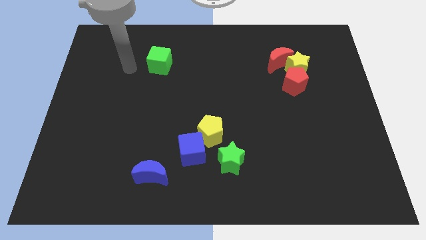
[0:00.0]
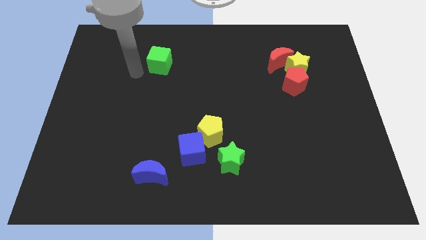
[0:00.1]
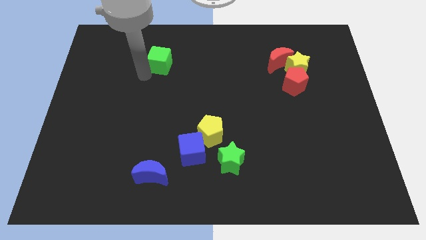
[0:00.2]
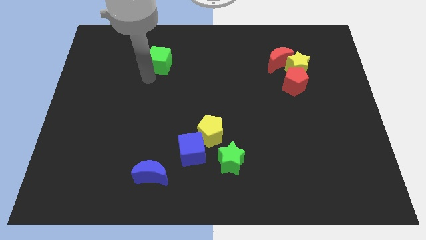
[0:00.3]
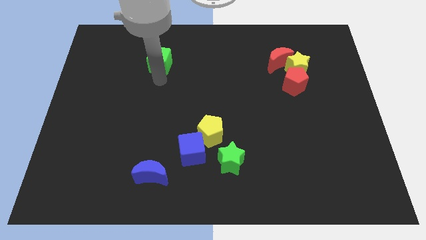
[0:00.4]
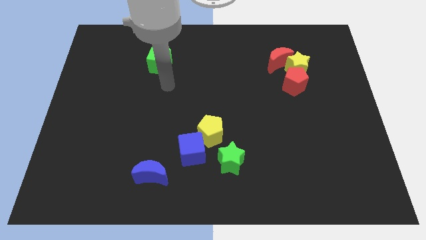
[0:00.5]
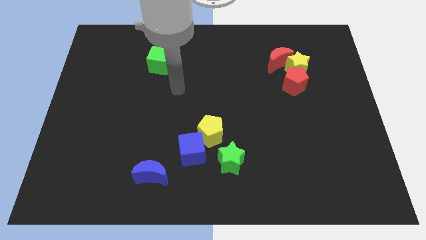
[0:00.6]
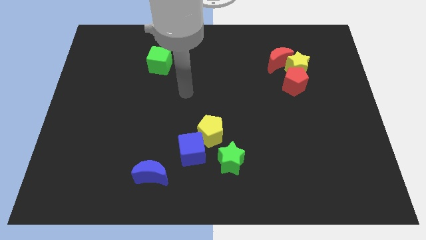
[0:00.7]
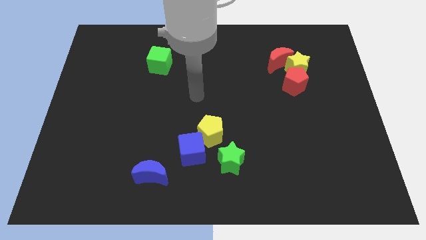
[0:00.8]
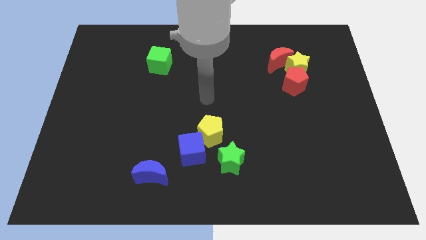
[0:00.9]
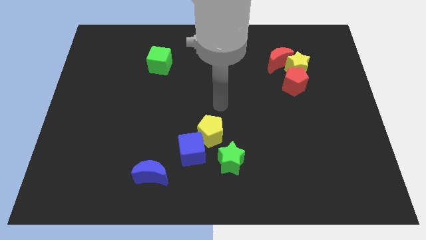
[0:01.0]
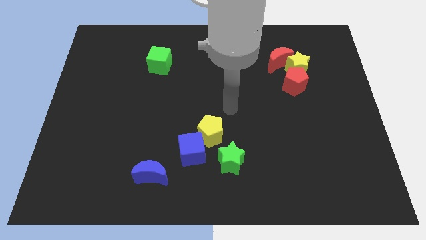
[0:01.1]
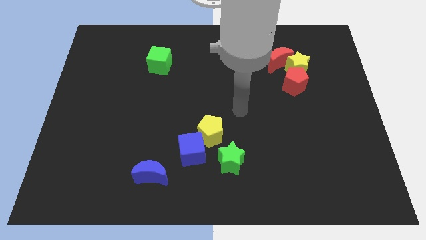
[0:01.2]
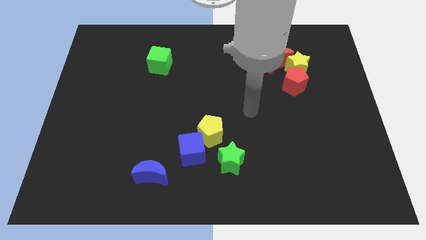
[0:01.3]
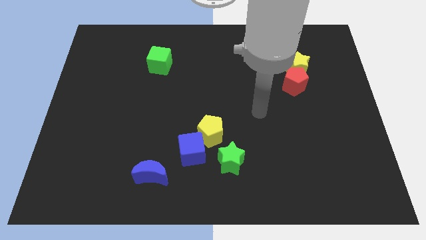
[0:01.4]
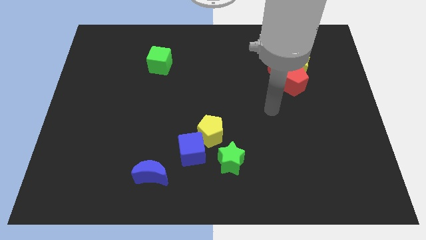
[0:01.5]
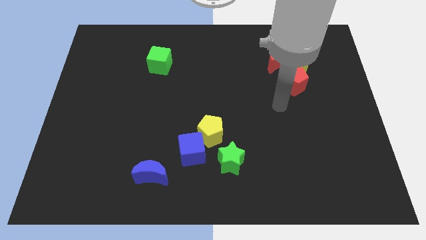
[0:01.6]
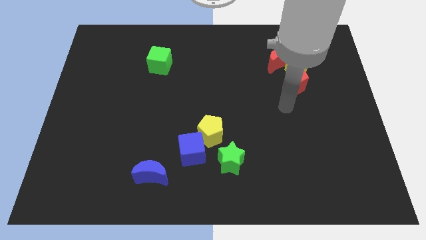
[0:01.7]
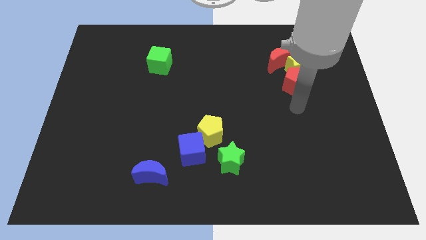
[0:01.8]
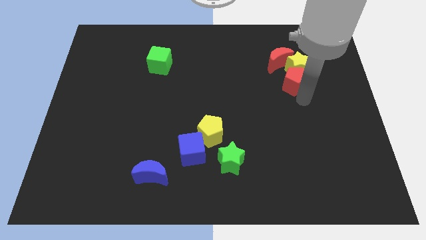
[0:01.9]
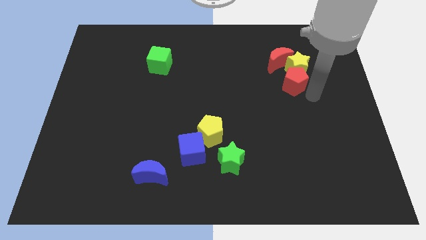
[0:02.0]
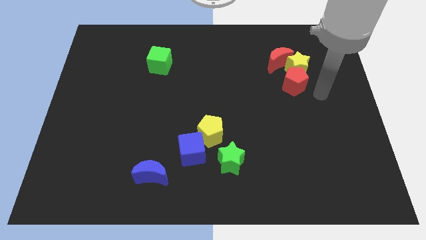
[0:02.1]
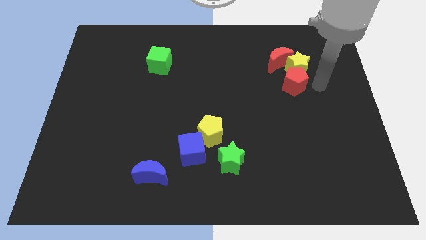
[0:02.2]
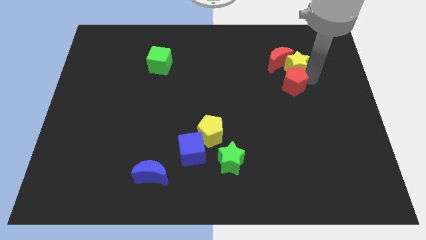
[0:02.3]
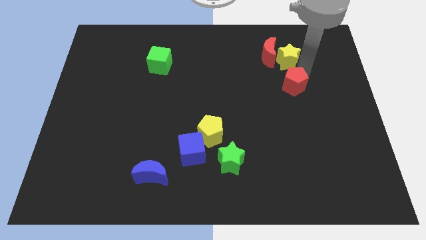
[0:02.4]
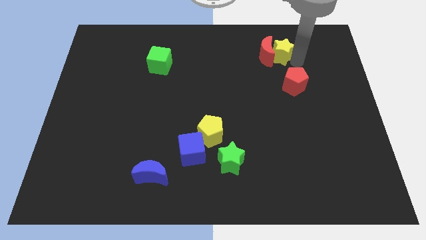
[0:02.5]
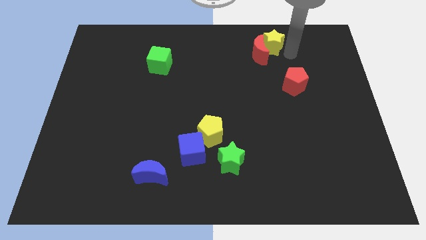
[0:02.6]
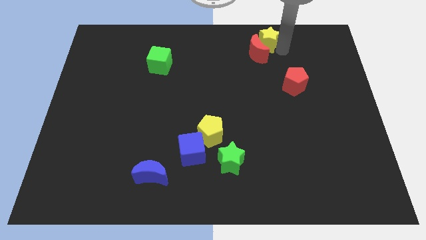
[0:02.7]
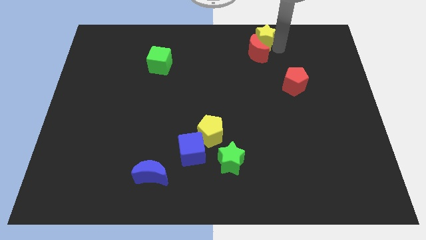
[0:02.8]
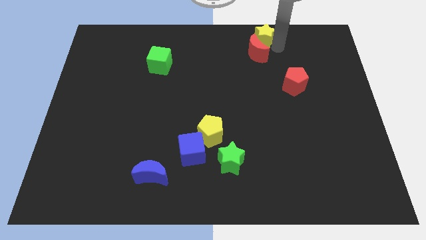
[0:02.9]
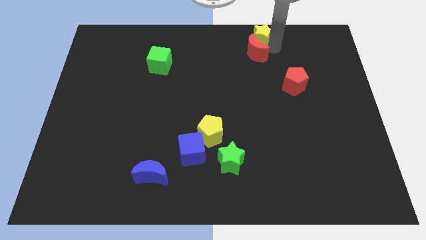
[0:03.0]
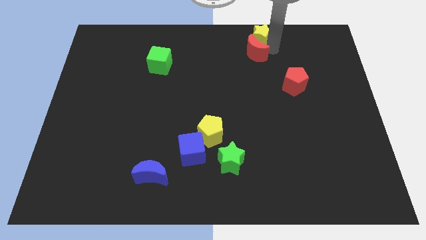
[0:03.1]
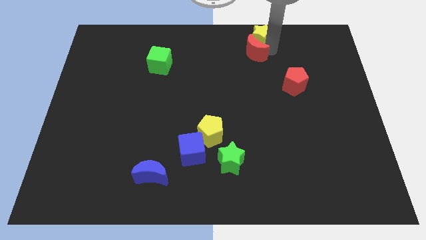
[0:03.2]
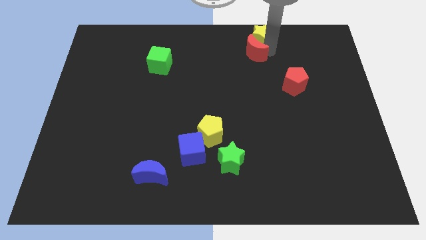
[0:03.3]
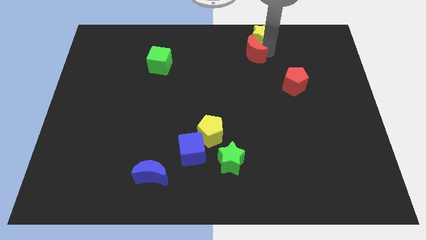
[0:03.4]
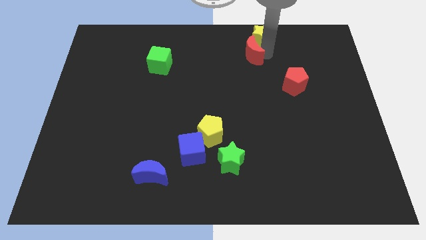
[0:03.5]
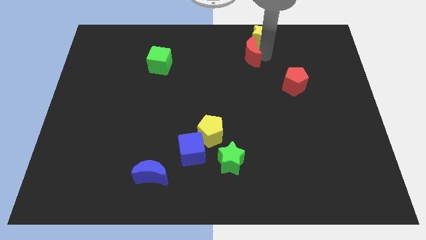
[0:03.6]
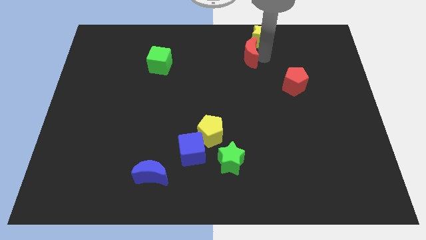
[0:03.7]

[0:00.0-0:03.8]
slightly push the red moon to the left

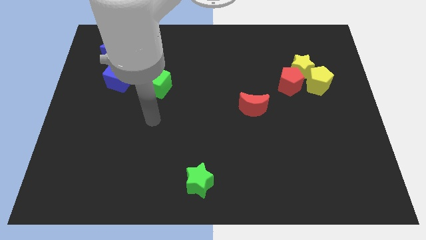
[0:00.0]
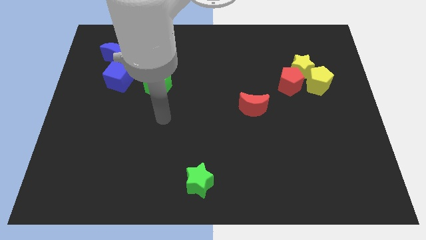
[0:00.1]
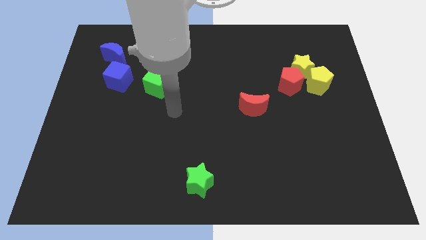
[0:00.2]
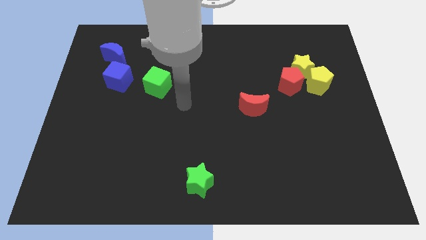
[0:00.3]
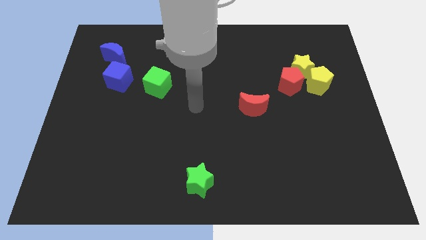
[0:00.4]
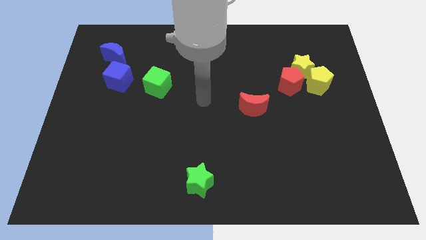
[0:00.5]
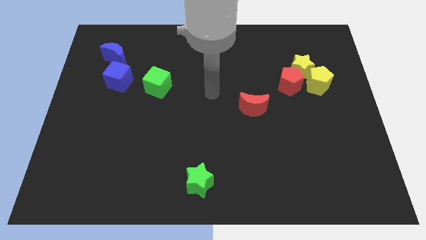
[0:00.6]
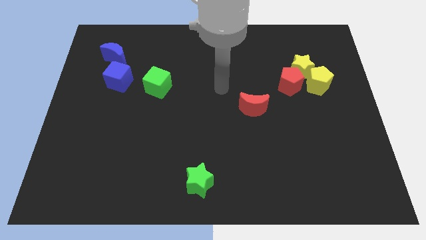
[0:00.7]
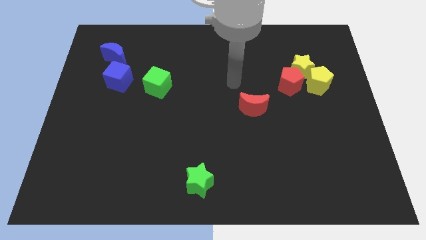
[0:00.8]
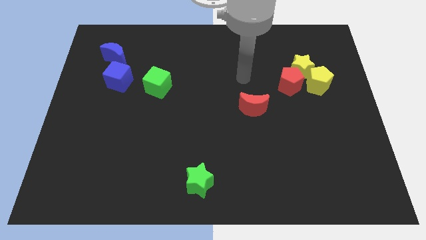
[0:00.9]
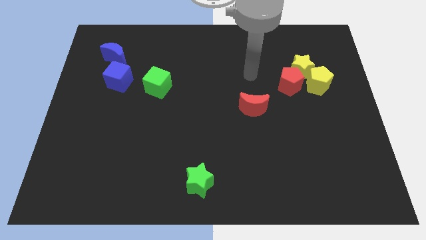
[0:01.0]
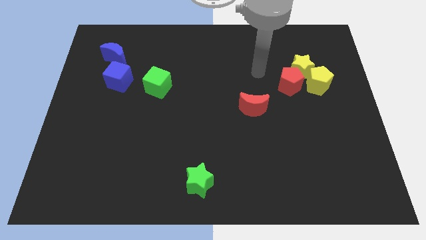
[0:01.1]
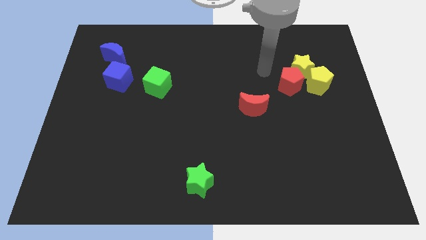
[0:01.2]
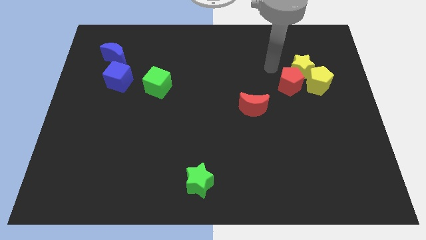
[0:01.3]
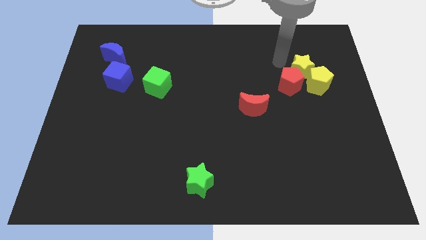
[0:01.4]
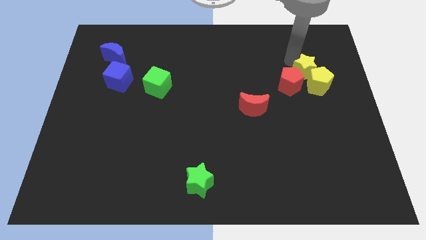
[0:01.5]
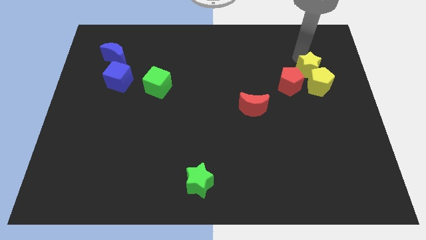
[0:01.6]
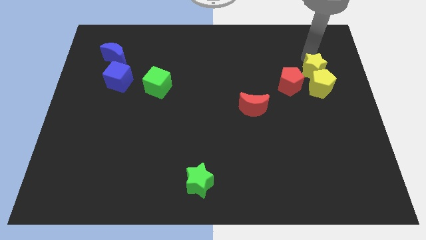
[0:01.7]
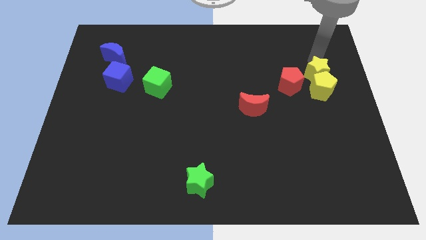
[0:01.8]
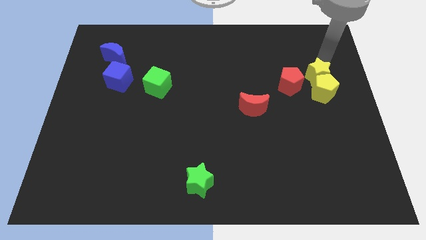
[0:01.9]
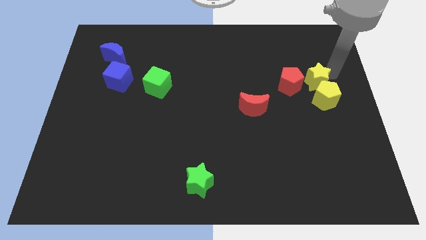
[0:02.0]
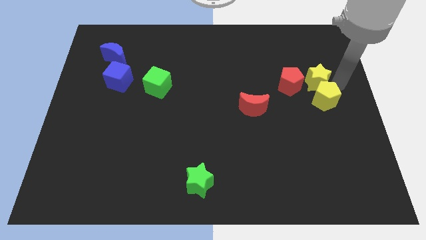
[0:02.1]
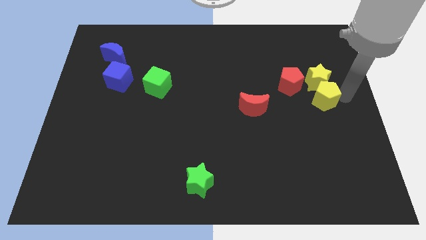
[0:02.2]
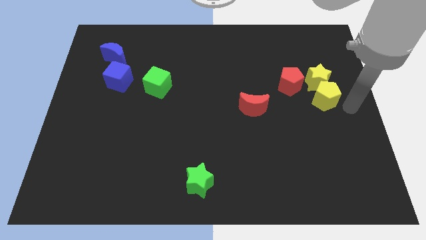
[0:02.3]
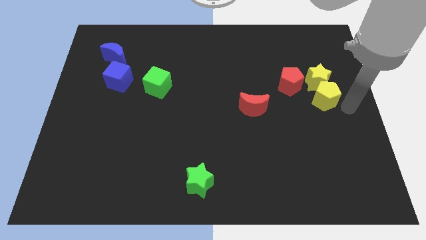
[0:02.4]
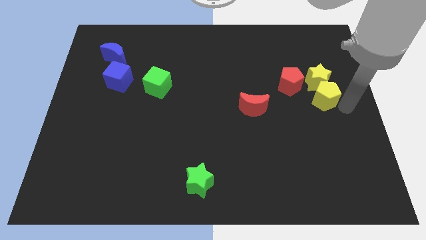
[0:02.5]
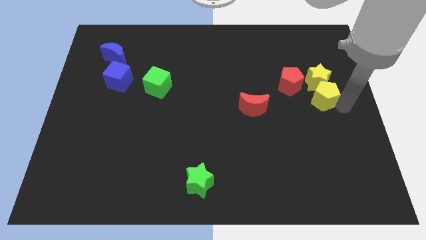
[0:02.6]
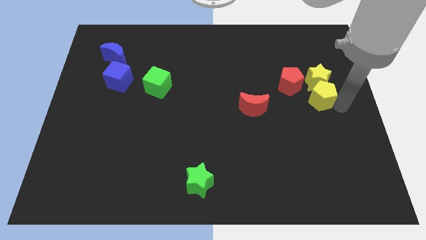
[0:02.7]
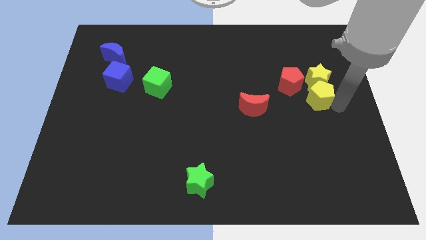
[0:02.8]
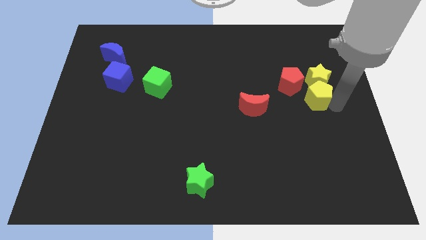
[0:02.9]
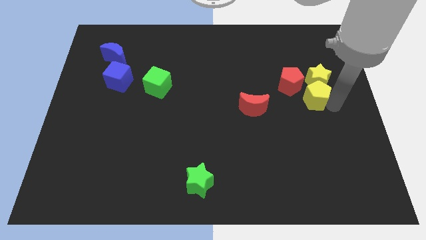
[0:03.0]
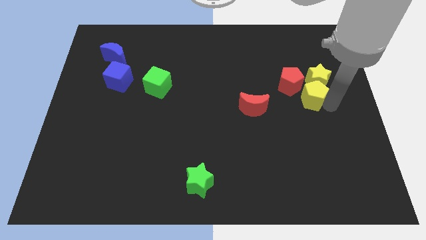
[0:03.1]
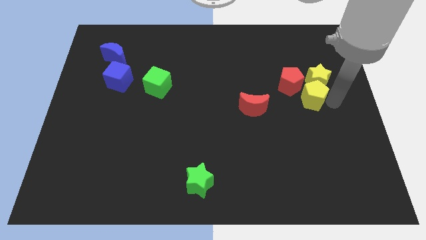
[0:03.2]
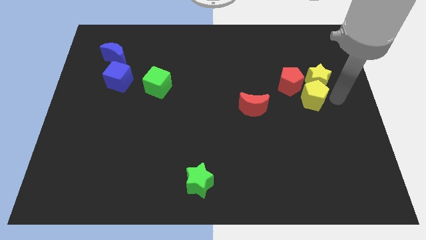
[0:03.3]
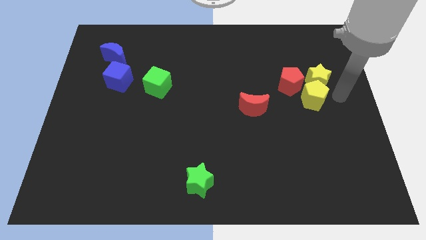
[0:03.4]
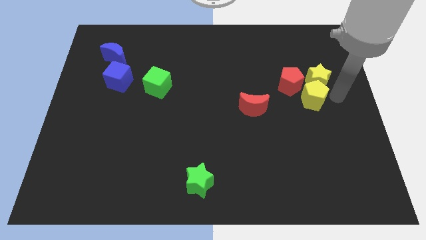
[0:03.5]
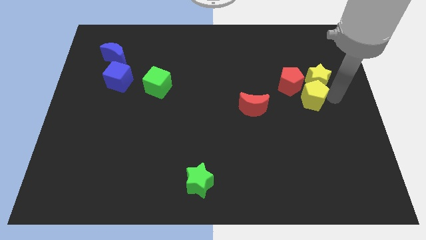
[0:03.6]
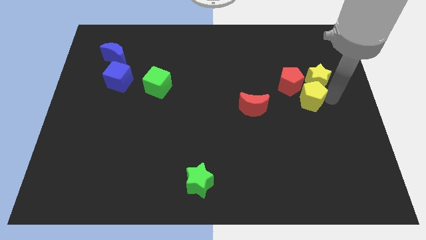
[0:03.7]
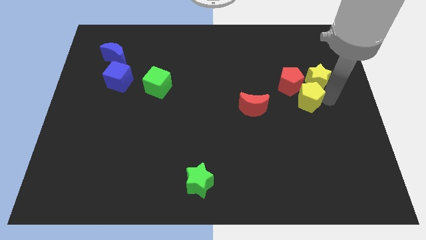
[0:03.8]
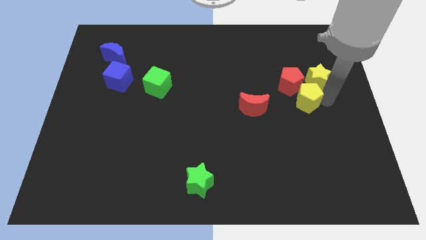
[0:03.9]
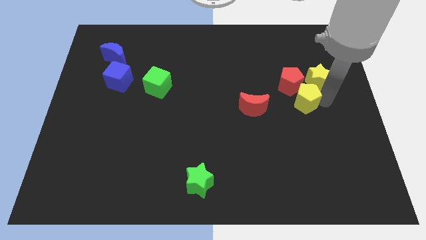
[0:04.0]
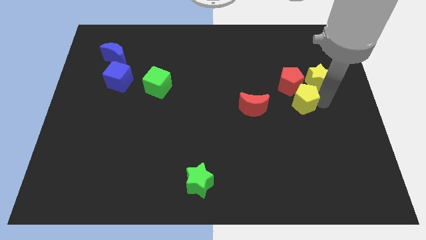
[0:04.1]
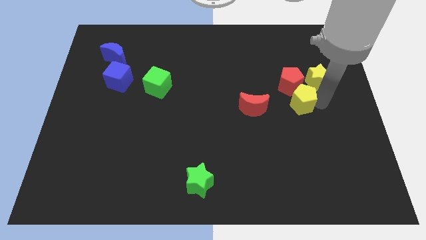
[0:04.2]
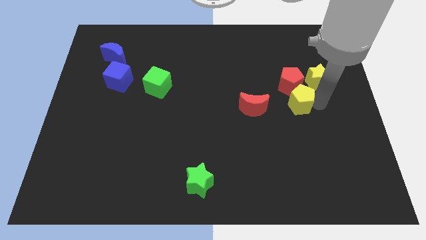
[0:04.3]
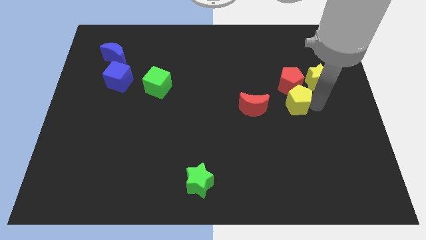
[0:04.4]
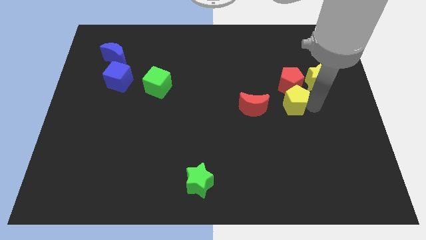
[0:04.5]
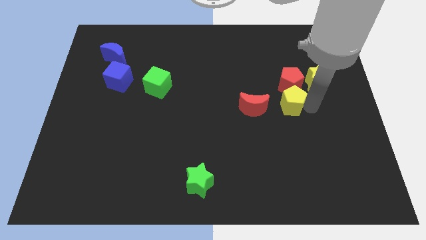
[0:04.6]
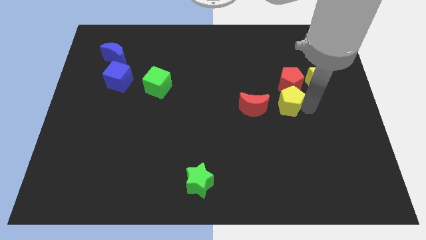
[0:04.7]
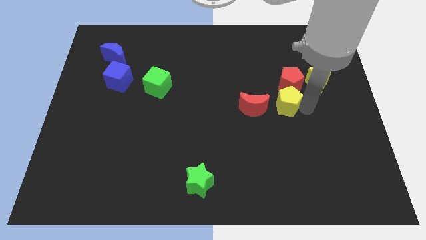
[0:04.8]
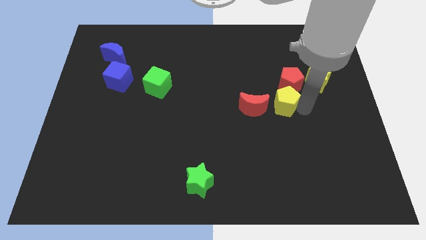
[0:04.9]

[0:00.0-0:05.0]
move the yellow pentagon somewhat left
